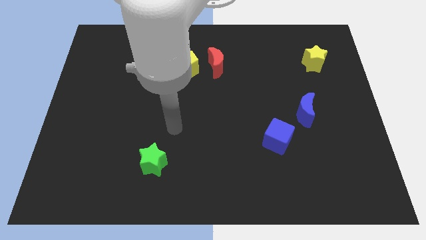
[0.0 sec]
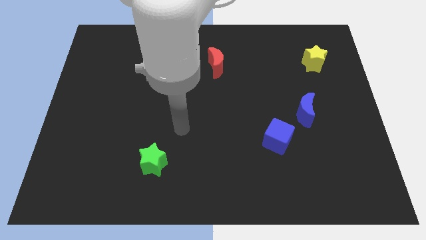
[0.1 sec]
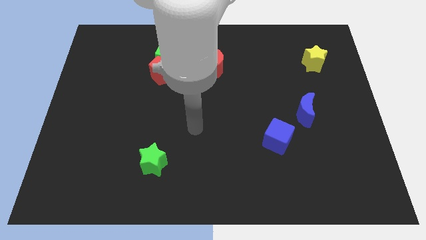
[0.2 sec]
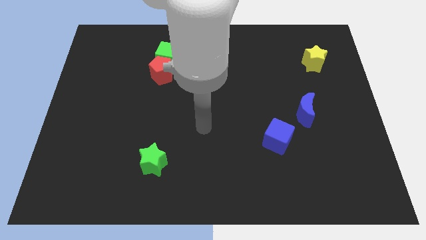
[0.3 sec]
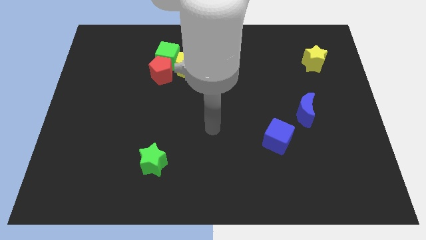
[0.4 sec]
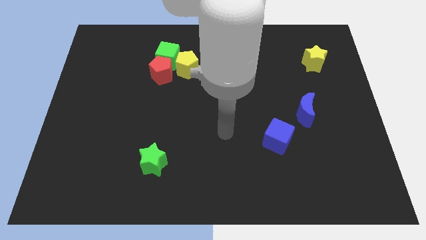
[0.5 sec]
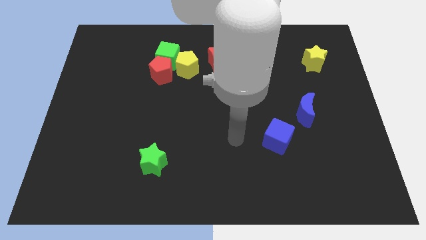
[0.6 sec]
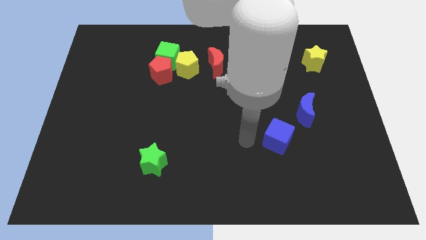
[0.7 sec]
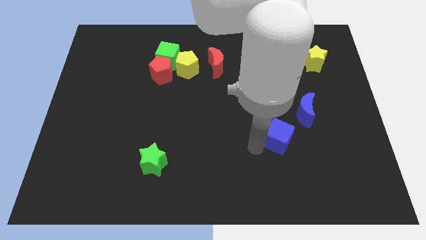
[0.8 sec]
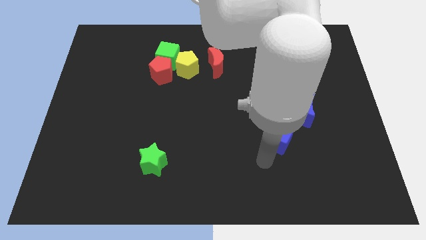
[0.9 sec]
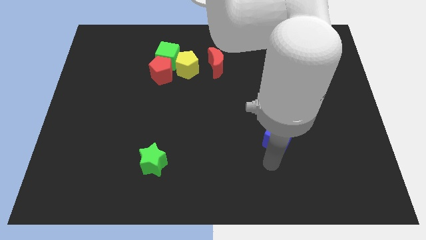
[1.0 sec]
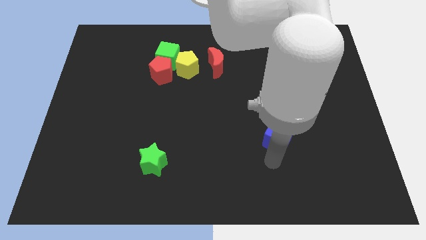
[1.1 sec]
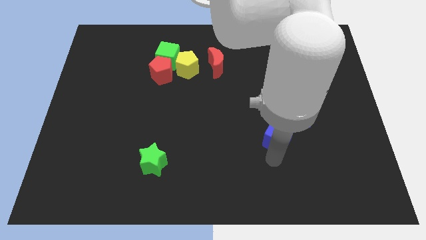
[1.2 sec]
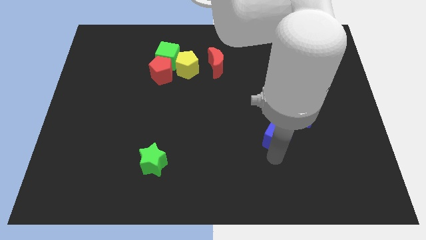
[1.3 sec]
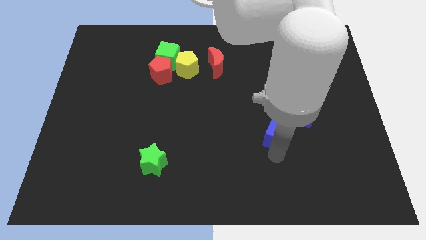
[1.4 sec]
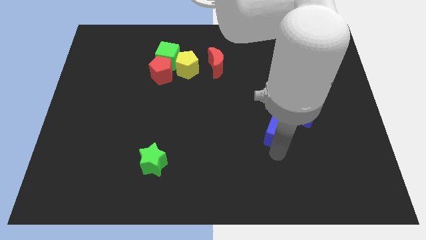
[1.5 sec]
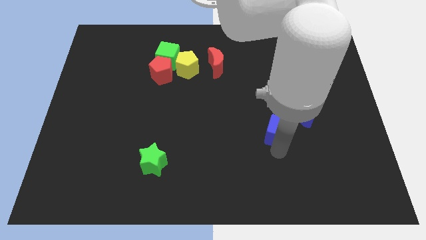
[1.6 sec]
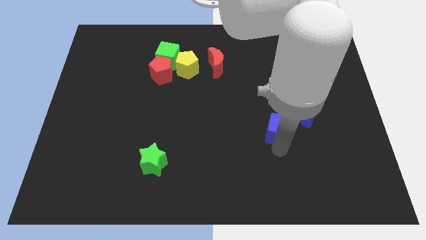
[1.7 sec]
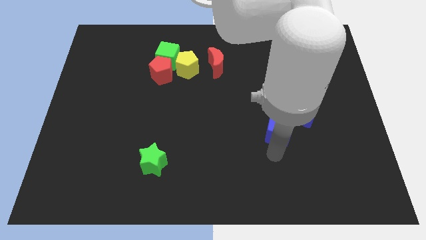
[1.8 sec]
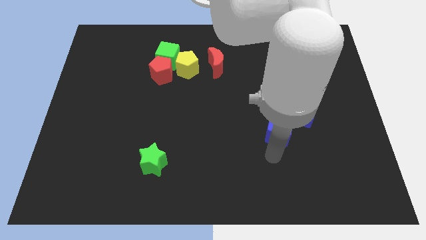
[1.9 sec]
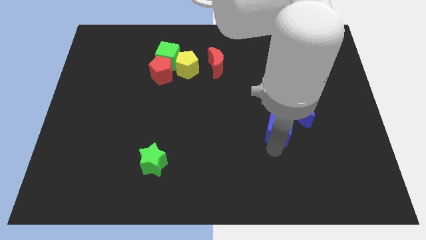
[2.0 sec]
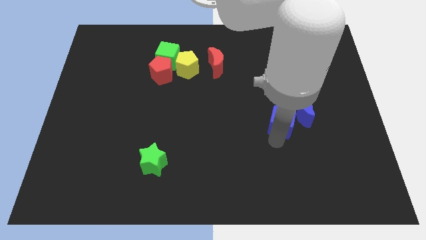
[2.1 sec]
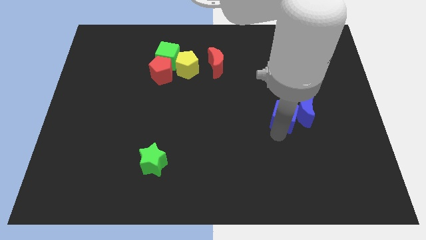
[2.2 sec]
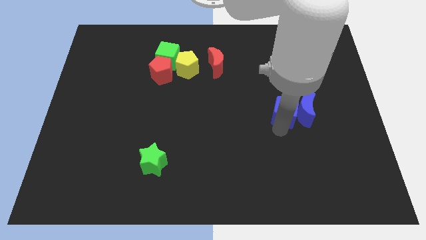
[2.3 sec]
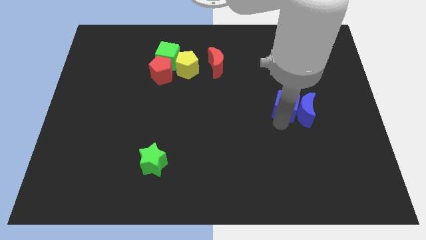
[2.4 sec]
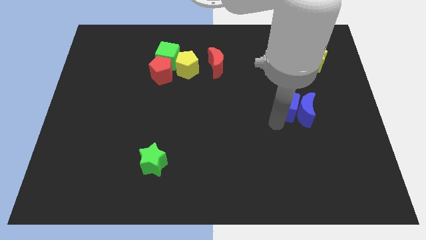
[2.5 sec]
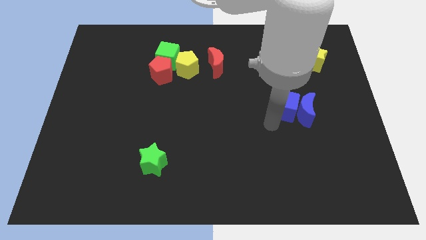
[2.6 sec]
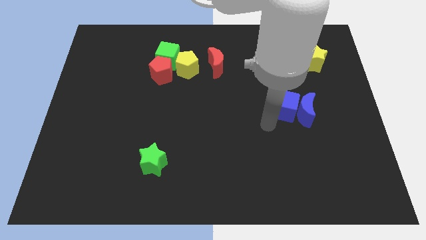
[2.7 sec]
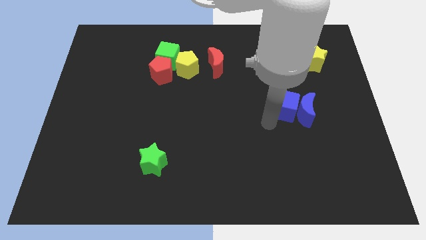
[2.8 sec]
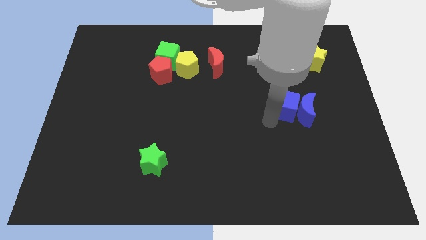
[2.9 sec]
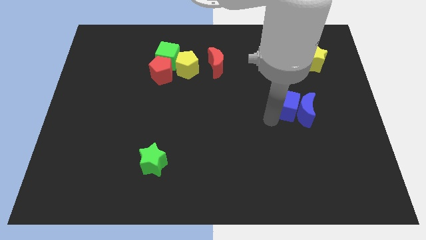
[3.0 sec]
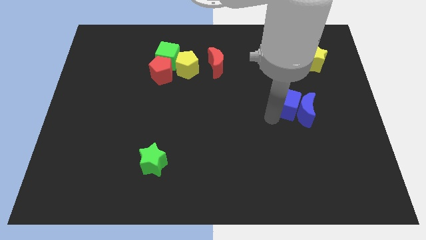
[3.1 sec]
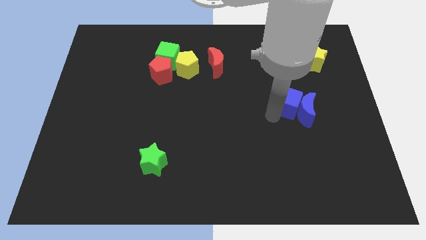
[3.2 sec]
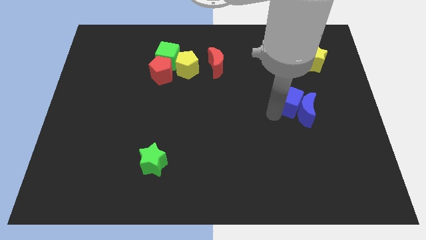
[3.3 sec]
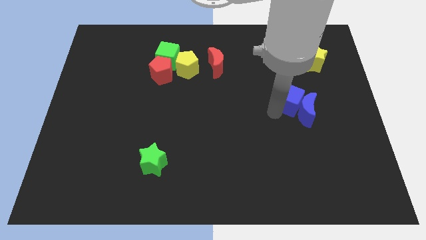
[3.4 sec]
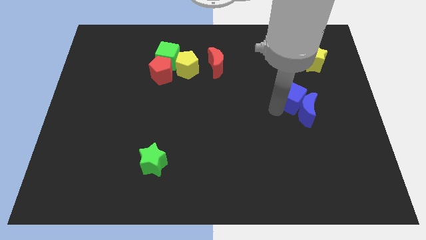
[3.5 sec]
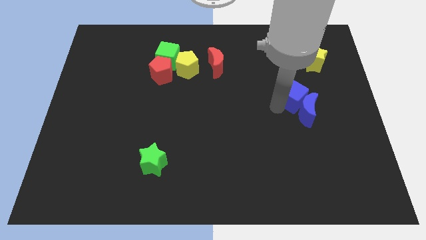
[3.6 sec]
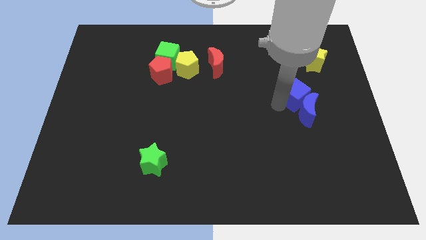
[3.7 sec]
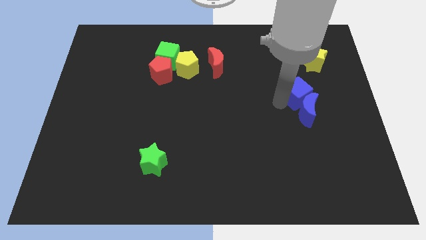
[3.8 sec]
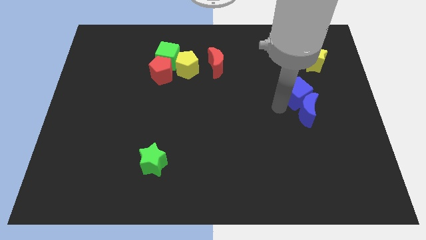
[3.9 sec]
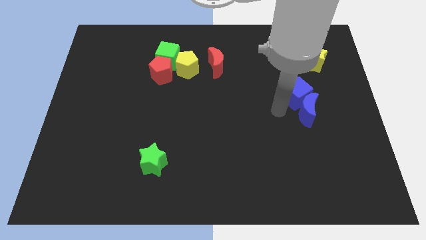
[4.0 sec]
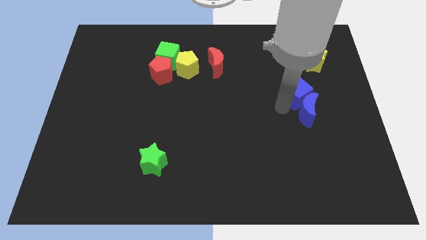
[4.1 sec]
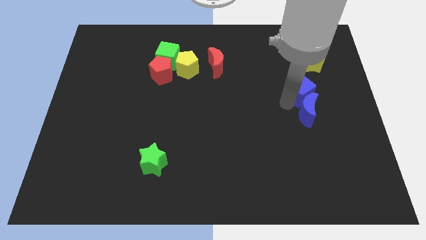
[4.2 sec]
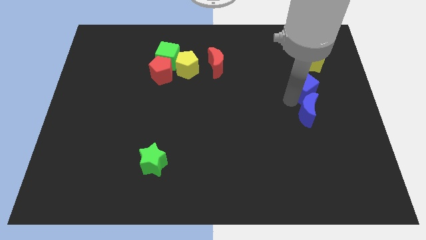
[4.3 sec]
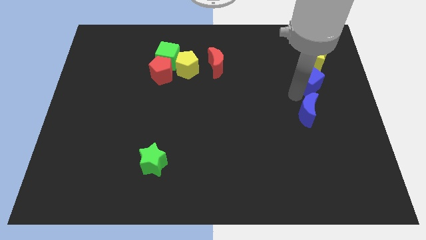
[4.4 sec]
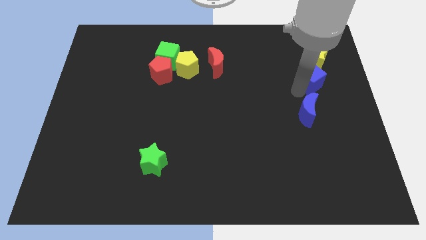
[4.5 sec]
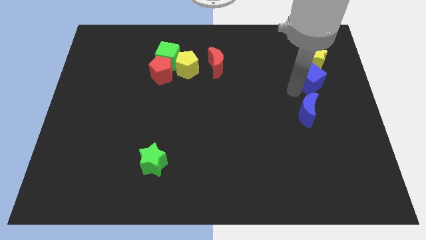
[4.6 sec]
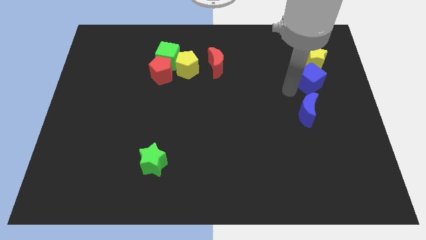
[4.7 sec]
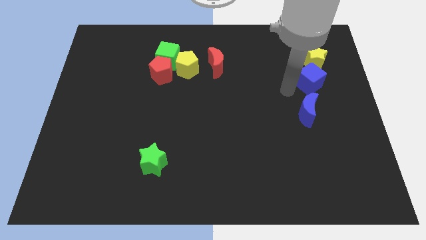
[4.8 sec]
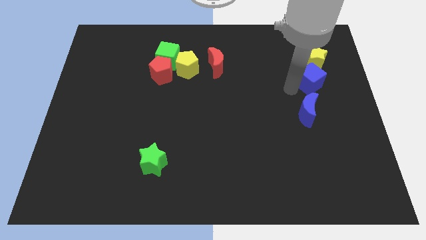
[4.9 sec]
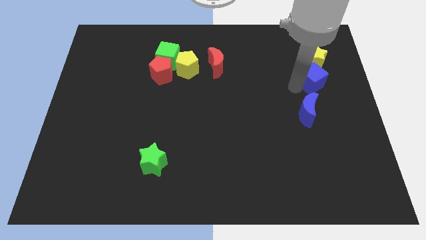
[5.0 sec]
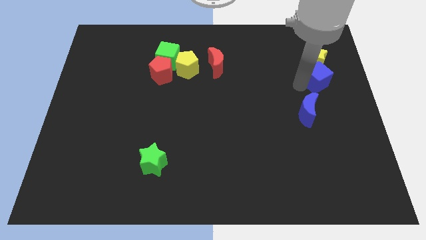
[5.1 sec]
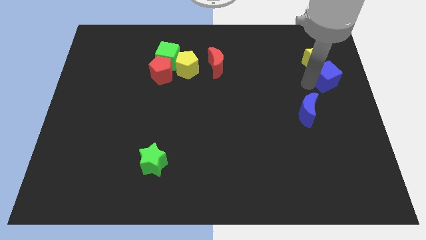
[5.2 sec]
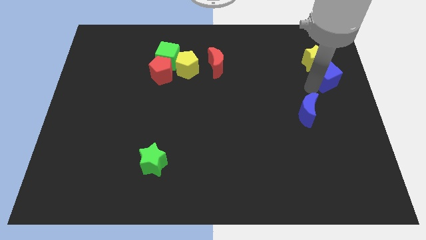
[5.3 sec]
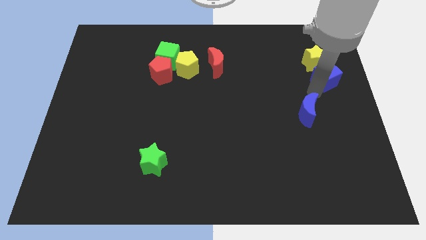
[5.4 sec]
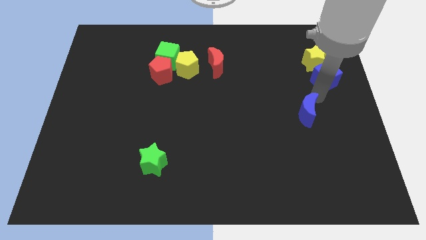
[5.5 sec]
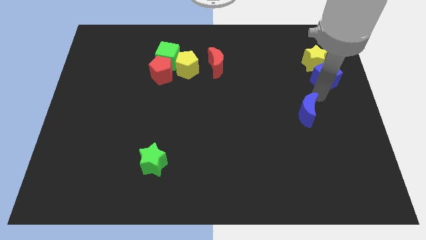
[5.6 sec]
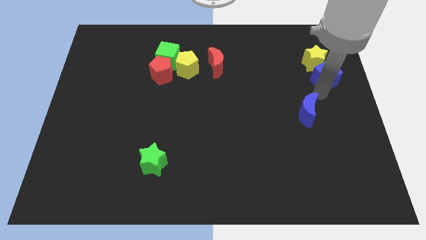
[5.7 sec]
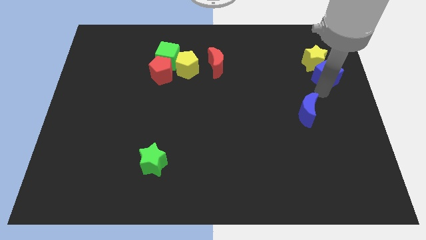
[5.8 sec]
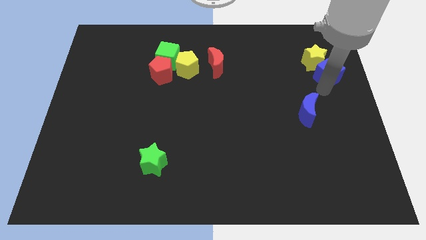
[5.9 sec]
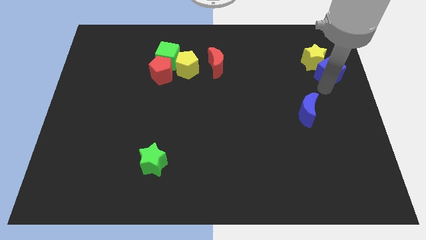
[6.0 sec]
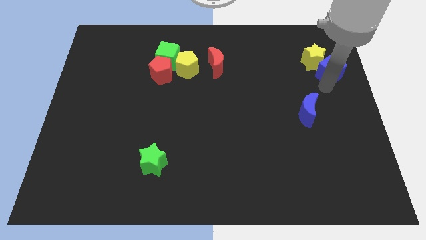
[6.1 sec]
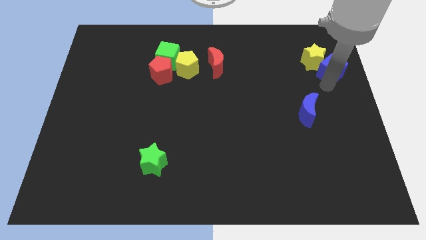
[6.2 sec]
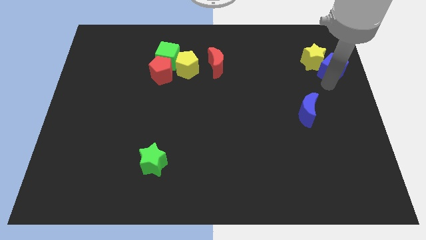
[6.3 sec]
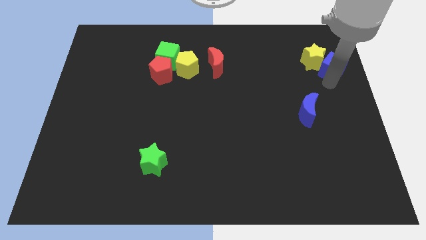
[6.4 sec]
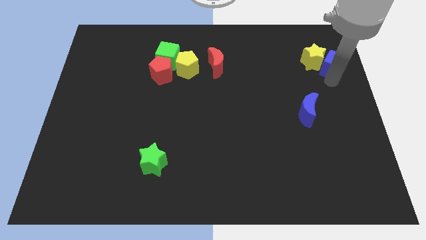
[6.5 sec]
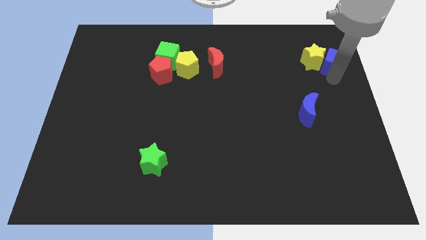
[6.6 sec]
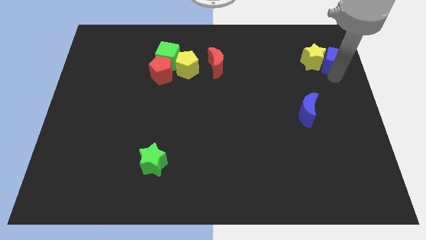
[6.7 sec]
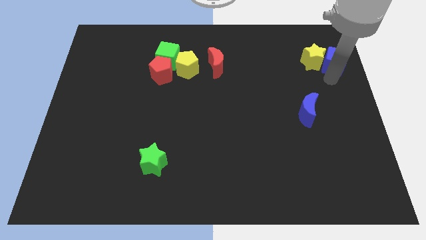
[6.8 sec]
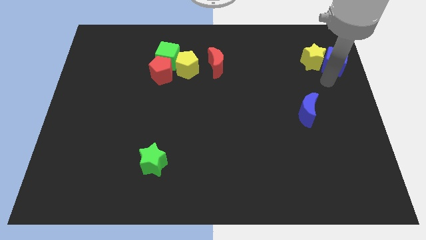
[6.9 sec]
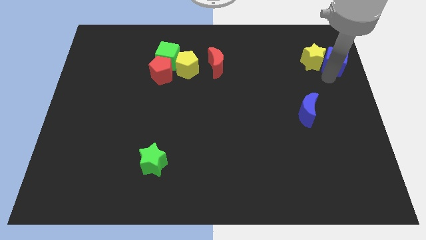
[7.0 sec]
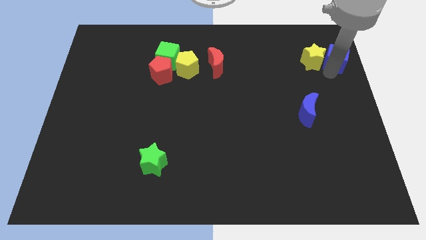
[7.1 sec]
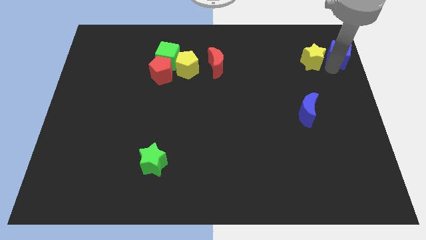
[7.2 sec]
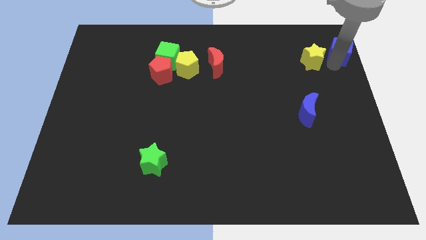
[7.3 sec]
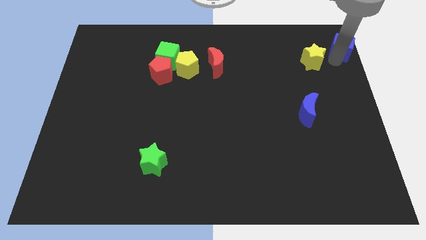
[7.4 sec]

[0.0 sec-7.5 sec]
move the blue cube to the top right of the board

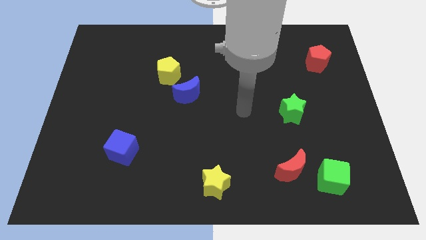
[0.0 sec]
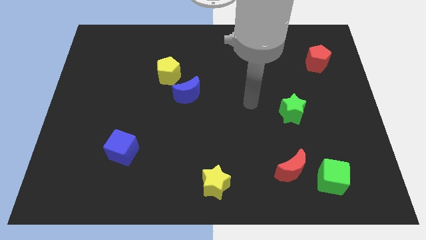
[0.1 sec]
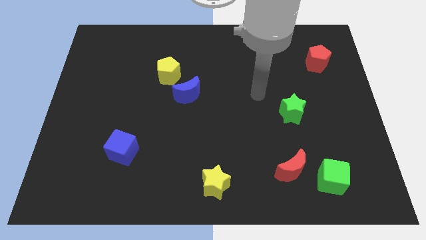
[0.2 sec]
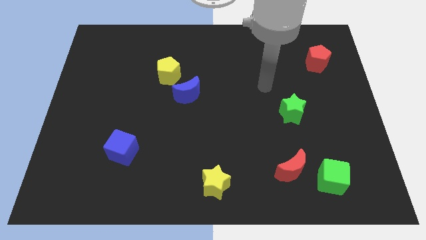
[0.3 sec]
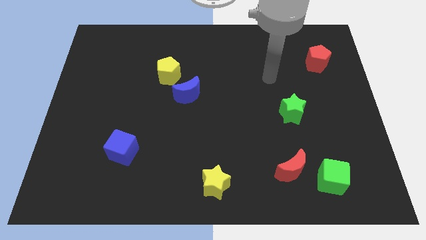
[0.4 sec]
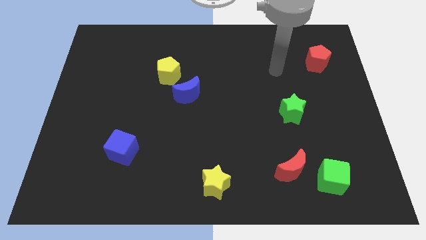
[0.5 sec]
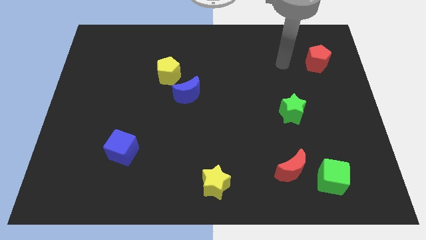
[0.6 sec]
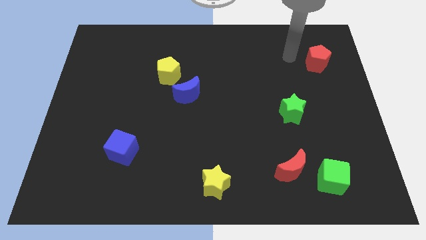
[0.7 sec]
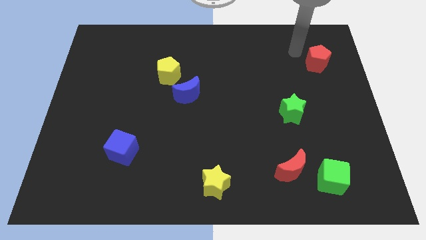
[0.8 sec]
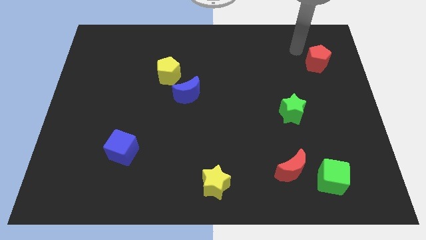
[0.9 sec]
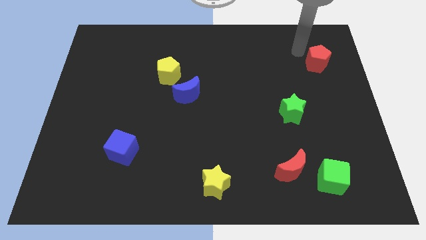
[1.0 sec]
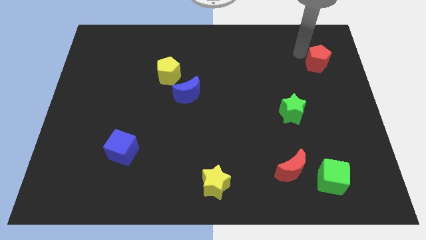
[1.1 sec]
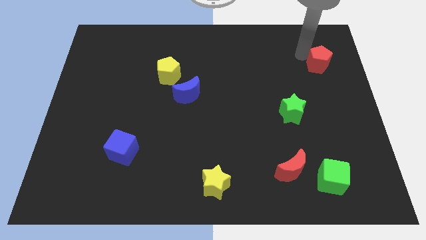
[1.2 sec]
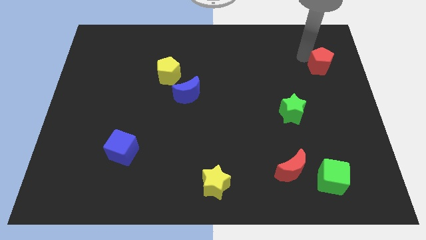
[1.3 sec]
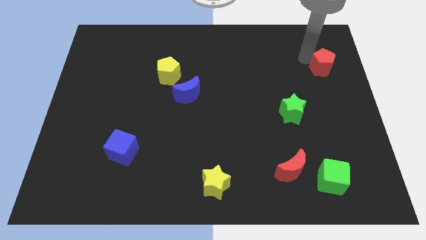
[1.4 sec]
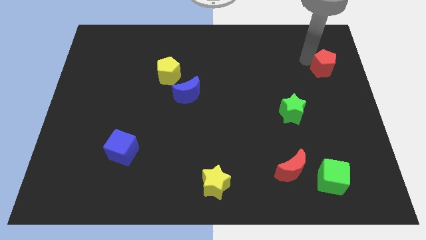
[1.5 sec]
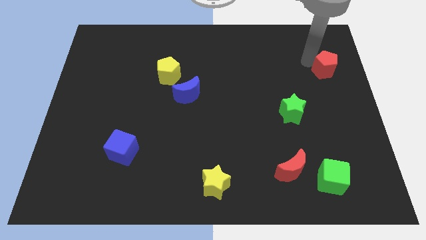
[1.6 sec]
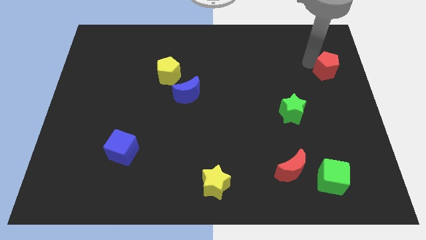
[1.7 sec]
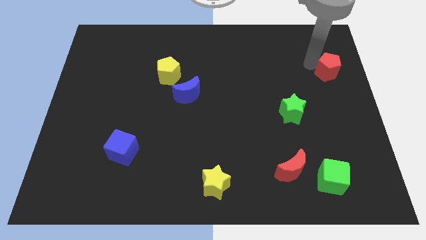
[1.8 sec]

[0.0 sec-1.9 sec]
slide the red pentagon to the right side
